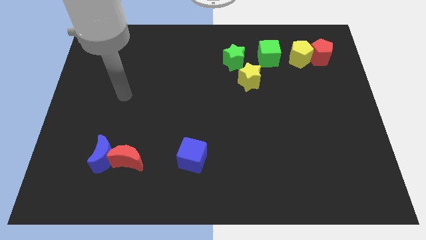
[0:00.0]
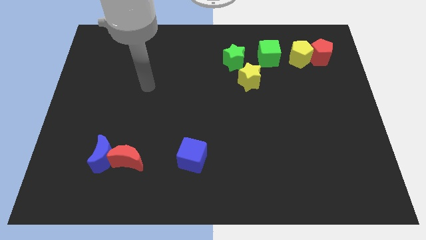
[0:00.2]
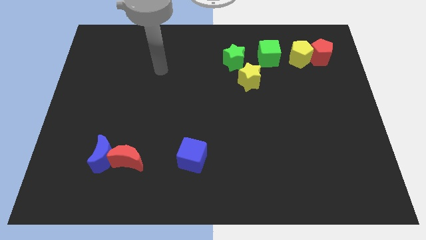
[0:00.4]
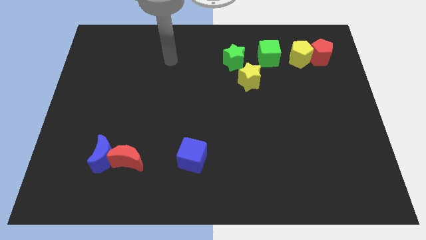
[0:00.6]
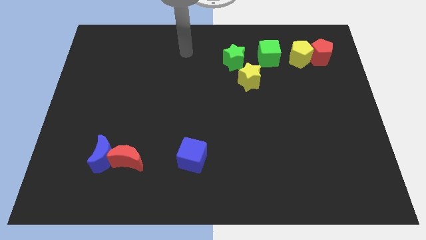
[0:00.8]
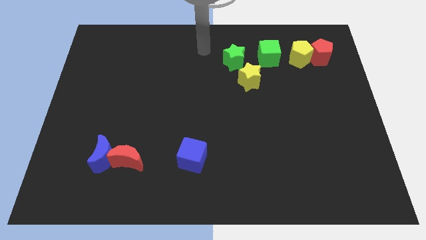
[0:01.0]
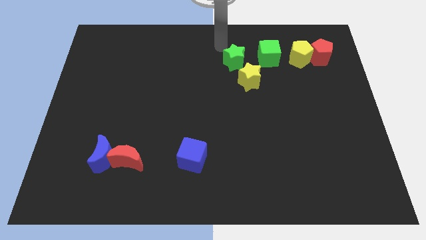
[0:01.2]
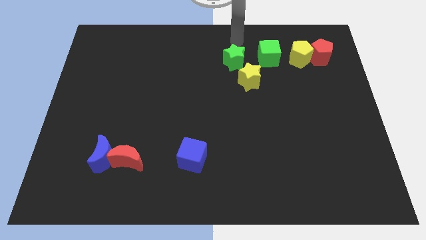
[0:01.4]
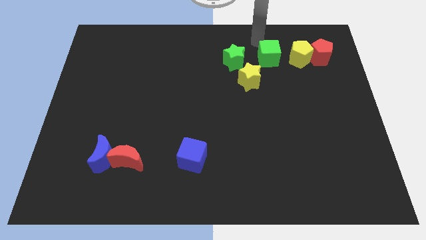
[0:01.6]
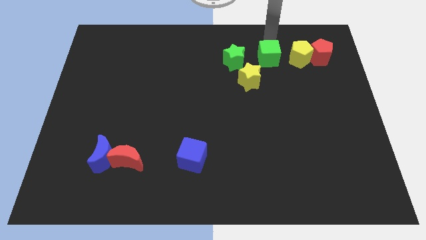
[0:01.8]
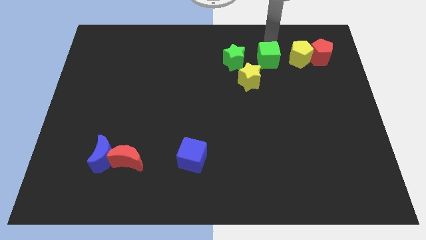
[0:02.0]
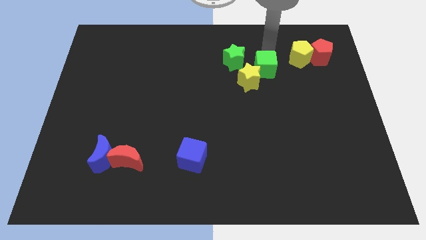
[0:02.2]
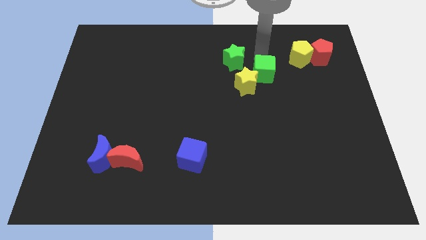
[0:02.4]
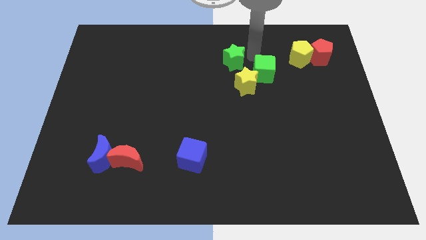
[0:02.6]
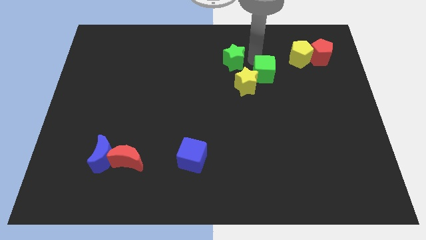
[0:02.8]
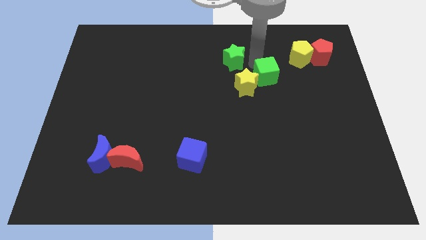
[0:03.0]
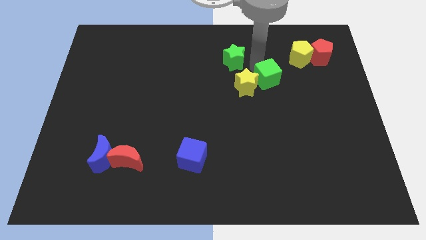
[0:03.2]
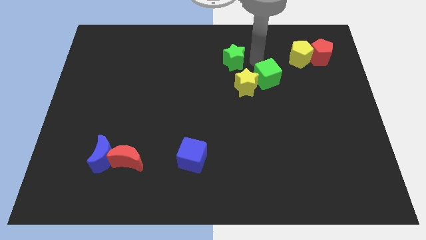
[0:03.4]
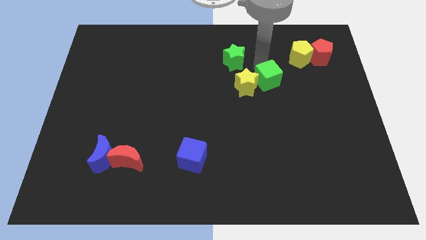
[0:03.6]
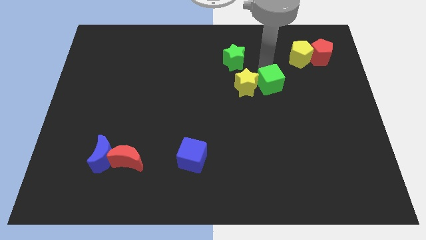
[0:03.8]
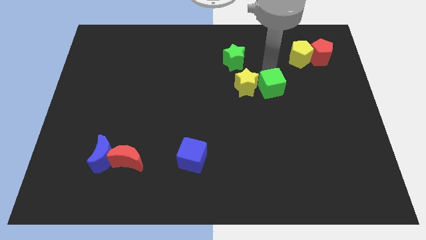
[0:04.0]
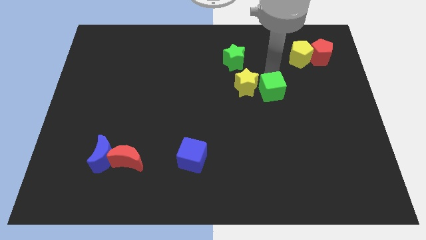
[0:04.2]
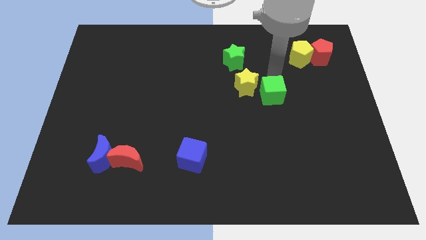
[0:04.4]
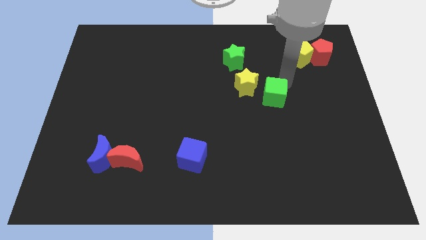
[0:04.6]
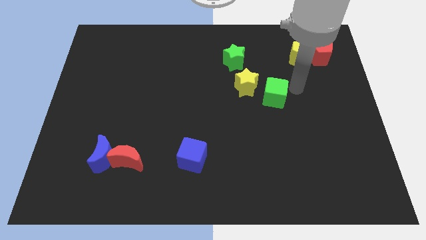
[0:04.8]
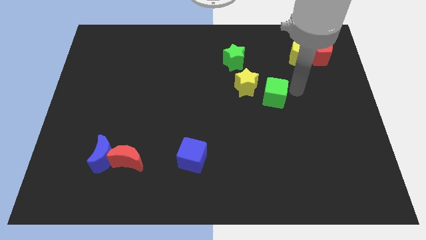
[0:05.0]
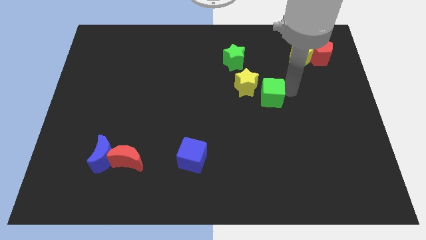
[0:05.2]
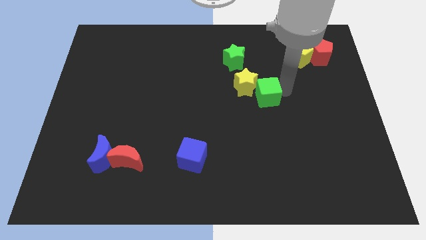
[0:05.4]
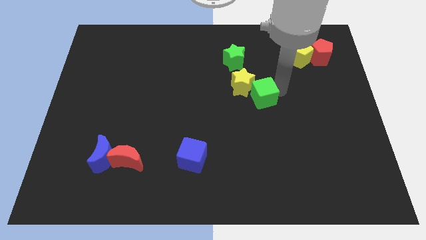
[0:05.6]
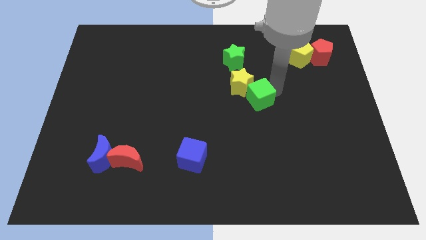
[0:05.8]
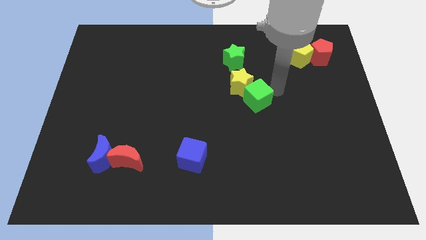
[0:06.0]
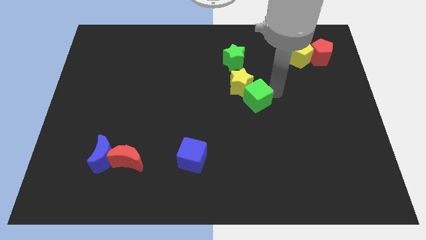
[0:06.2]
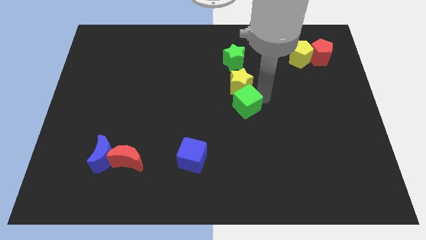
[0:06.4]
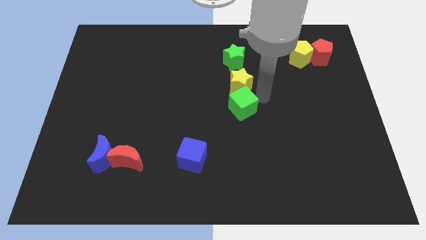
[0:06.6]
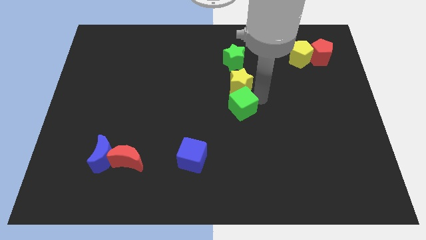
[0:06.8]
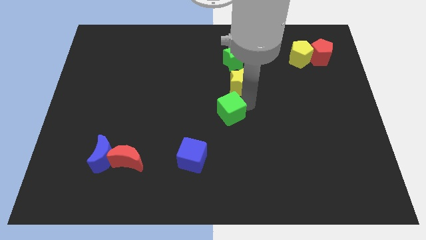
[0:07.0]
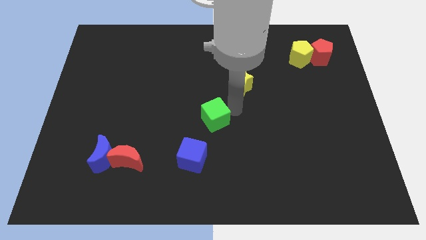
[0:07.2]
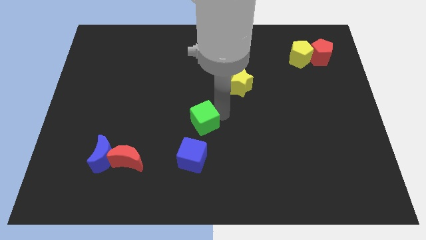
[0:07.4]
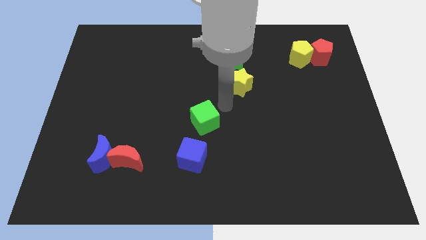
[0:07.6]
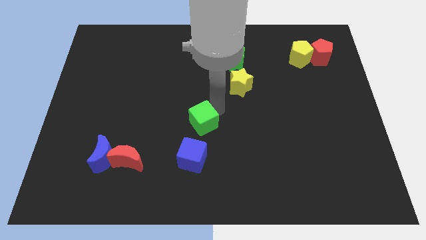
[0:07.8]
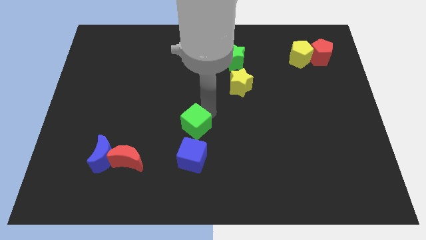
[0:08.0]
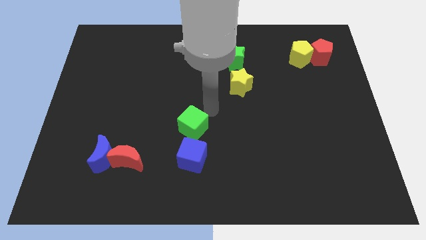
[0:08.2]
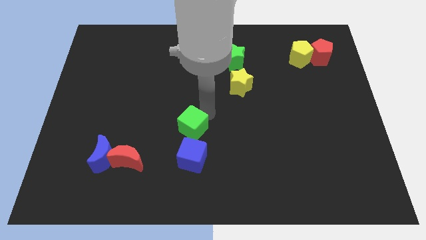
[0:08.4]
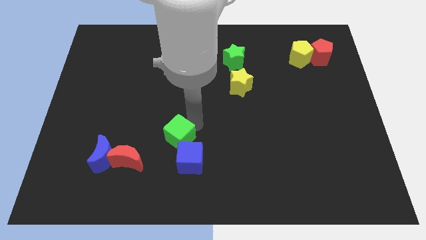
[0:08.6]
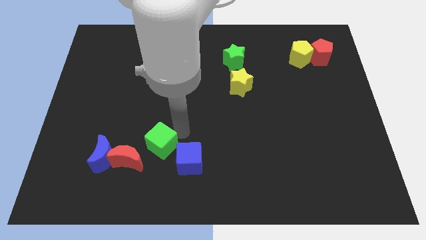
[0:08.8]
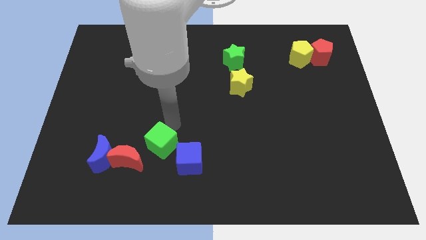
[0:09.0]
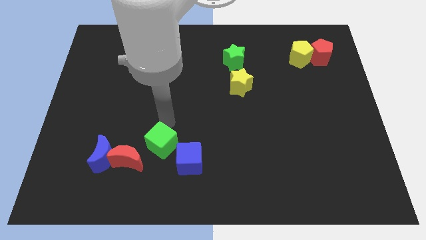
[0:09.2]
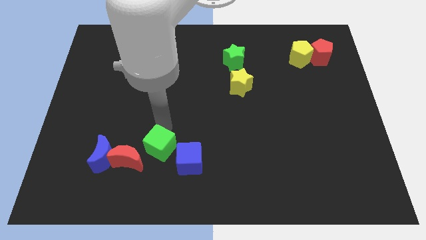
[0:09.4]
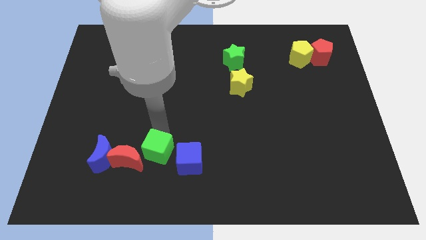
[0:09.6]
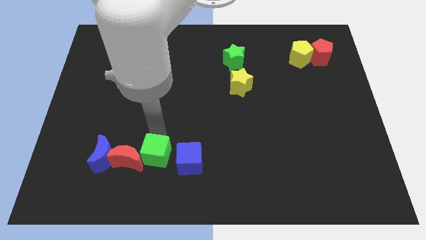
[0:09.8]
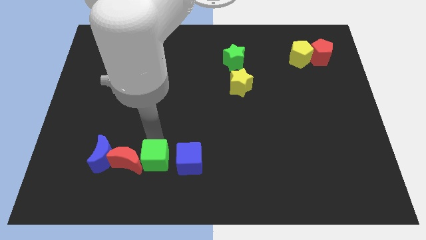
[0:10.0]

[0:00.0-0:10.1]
push the green cube diagonally down and to the right of the red moon

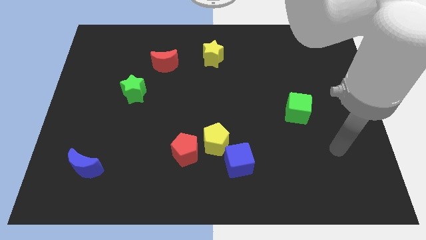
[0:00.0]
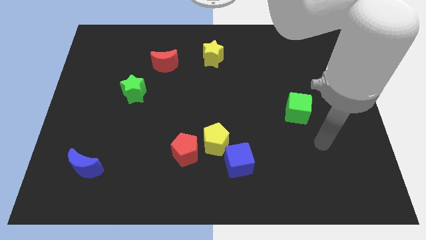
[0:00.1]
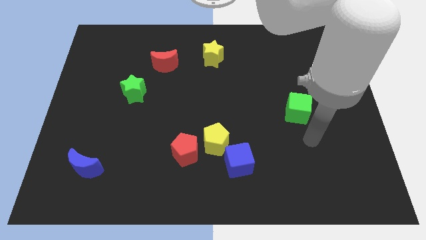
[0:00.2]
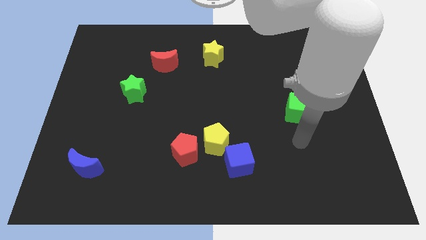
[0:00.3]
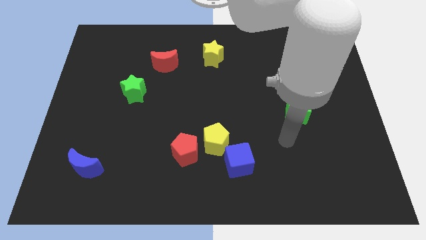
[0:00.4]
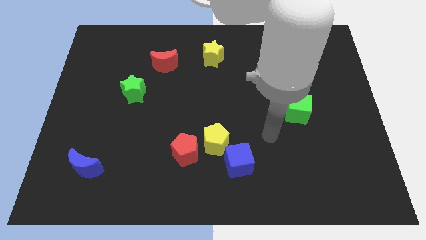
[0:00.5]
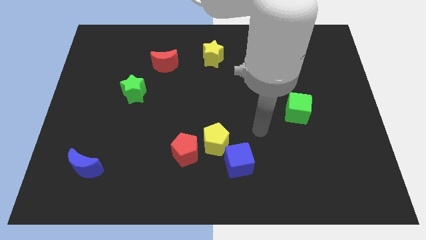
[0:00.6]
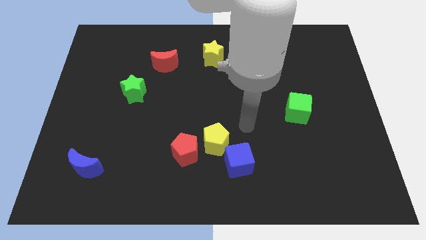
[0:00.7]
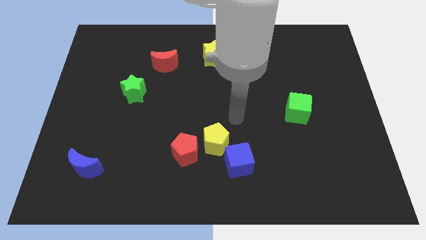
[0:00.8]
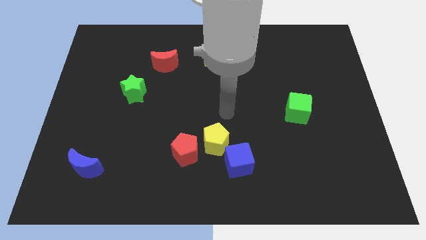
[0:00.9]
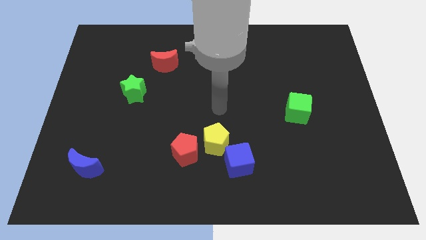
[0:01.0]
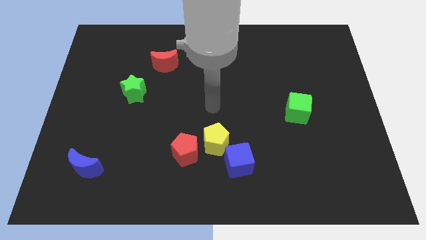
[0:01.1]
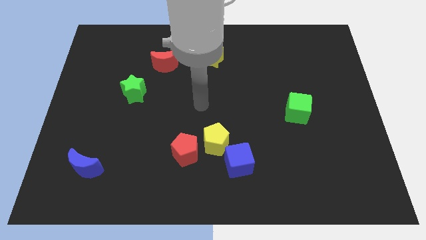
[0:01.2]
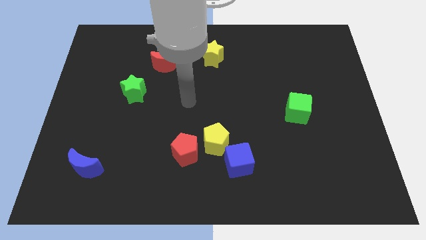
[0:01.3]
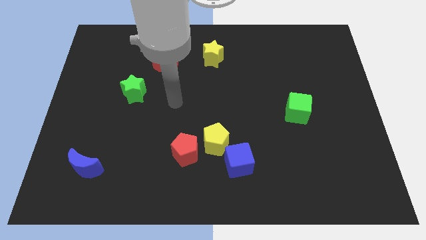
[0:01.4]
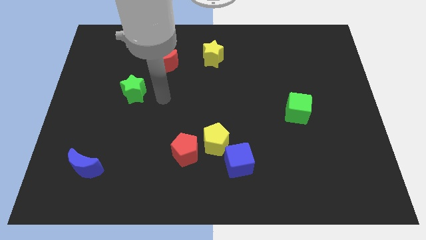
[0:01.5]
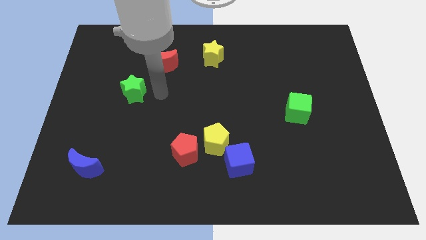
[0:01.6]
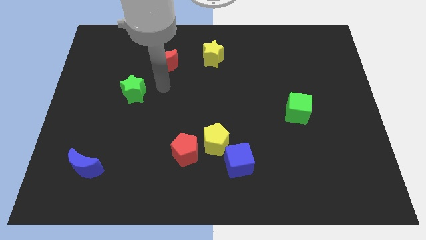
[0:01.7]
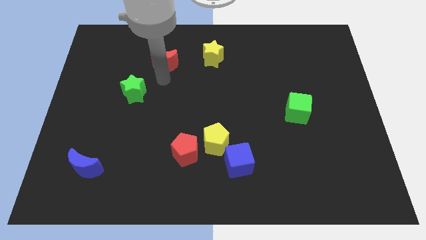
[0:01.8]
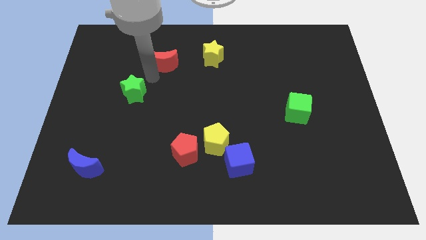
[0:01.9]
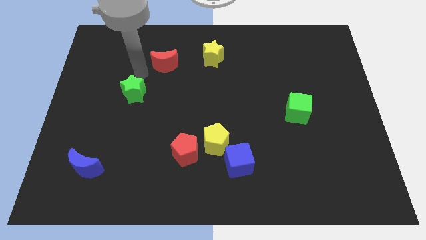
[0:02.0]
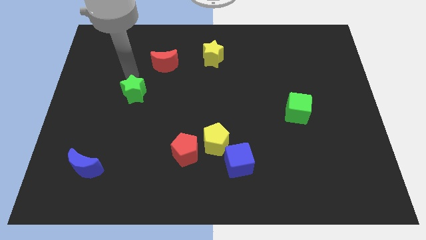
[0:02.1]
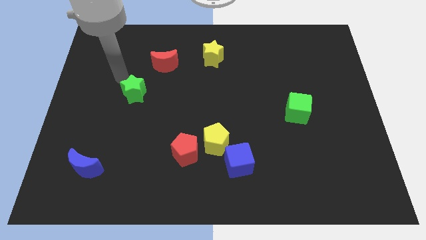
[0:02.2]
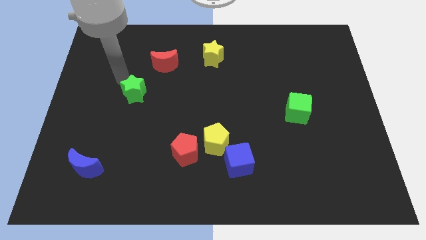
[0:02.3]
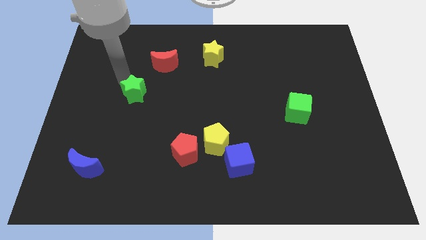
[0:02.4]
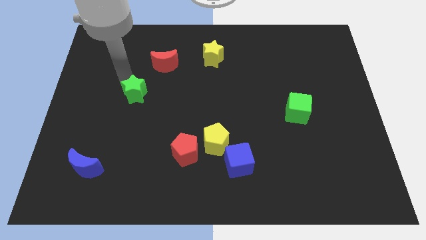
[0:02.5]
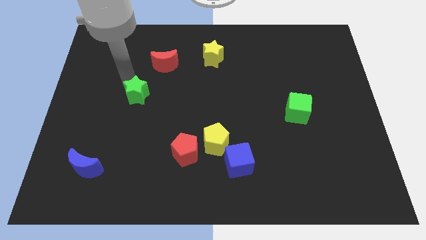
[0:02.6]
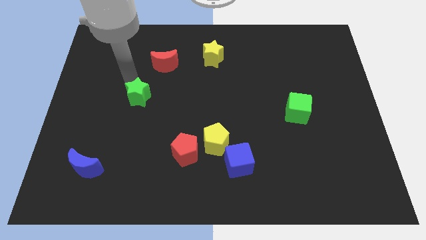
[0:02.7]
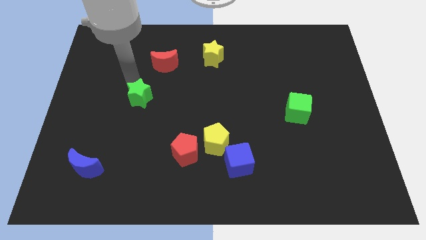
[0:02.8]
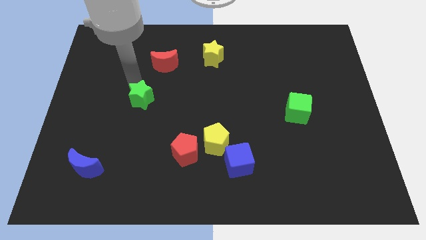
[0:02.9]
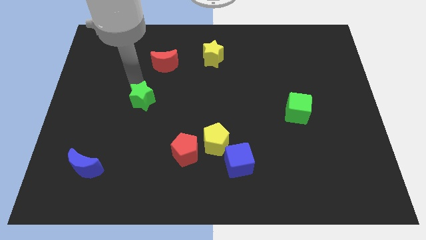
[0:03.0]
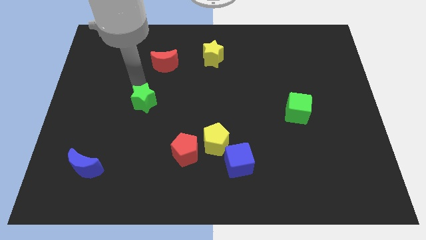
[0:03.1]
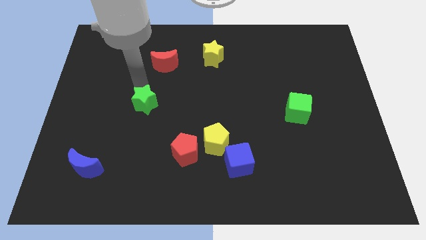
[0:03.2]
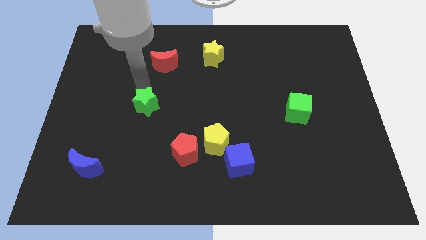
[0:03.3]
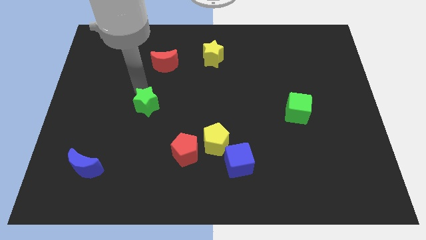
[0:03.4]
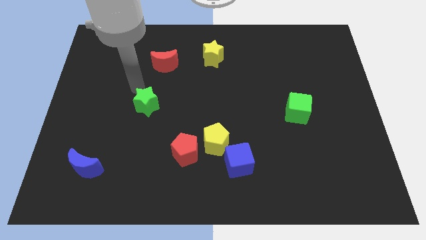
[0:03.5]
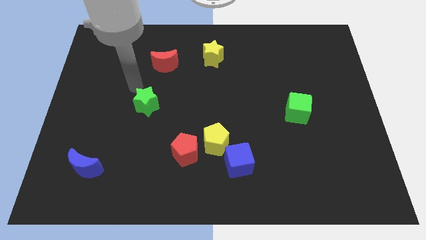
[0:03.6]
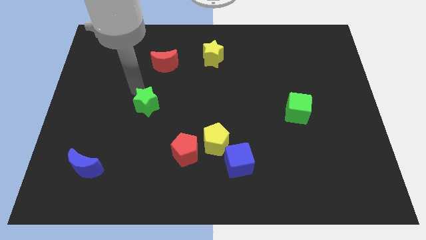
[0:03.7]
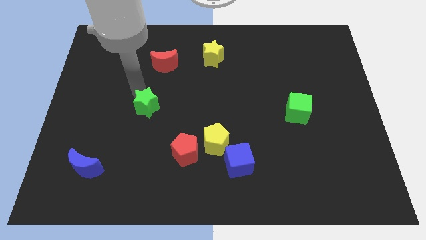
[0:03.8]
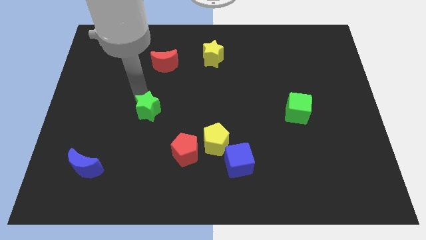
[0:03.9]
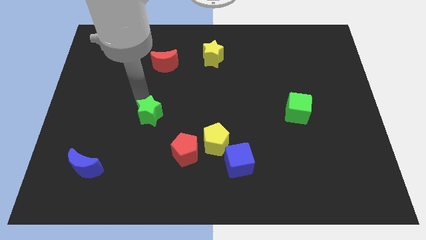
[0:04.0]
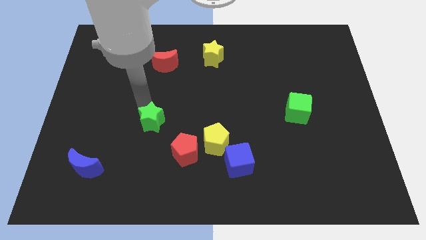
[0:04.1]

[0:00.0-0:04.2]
move the green star to the top left of the red pentagon
